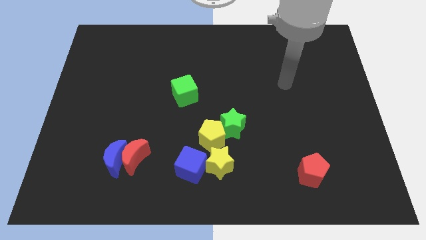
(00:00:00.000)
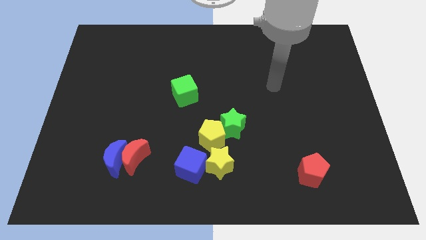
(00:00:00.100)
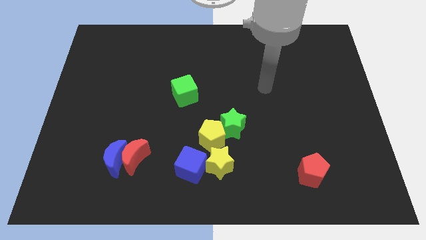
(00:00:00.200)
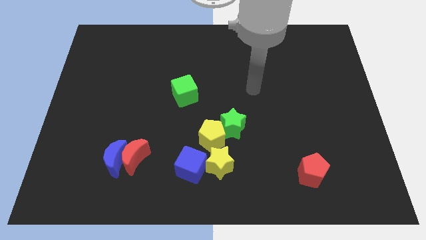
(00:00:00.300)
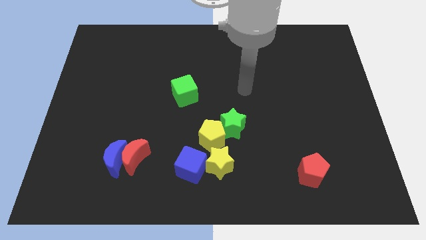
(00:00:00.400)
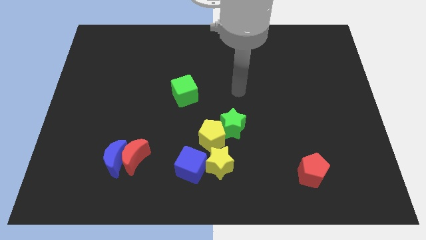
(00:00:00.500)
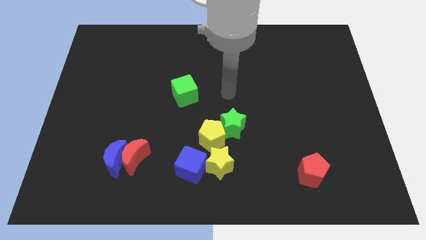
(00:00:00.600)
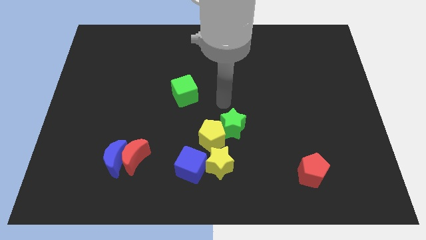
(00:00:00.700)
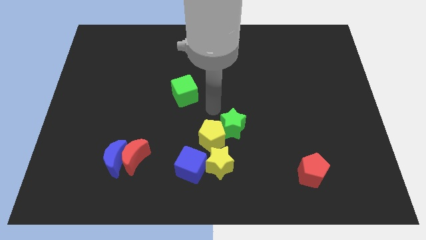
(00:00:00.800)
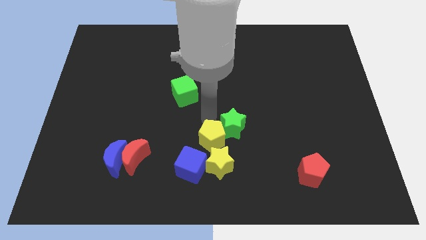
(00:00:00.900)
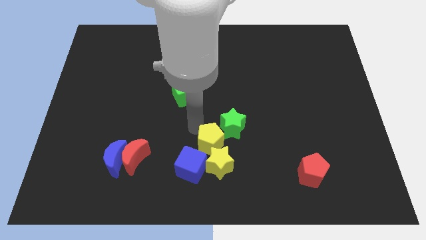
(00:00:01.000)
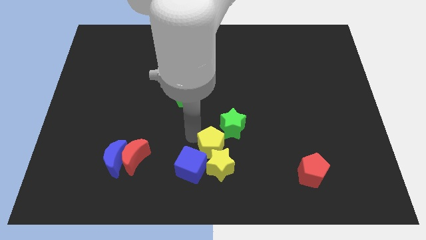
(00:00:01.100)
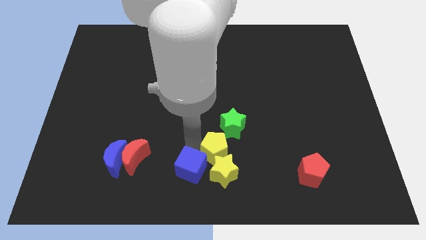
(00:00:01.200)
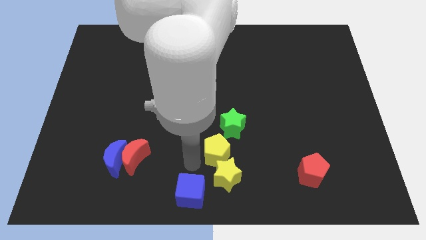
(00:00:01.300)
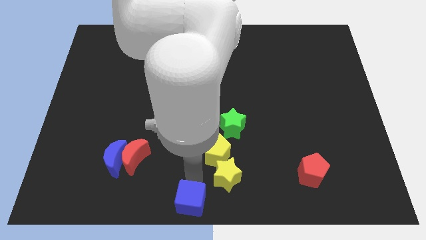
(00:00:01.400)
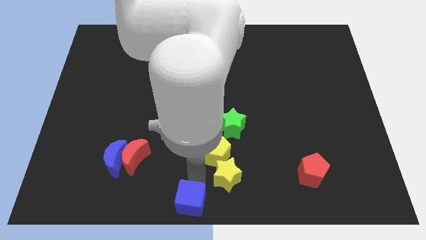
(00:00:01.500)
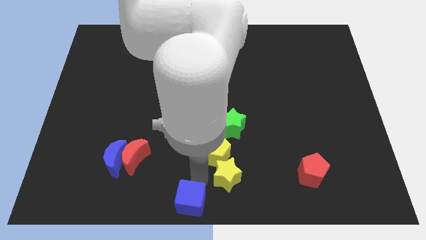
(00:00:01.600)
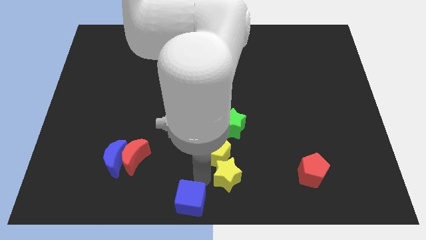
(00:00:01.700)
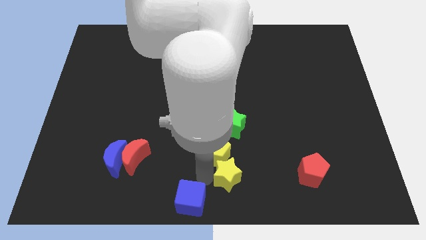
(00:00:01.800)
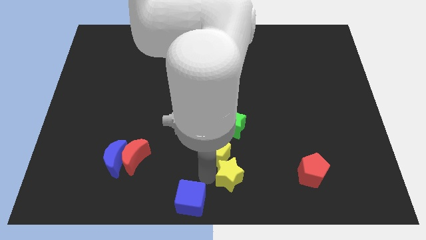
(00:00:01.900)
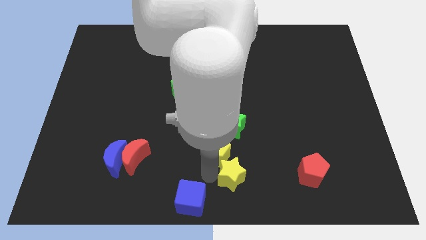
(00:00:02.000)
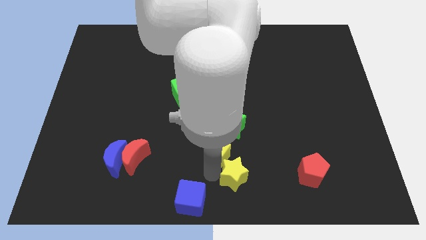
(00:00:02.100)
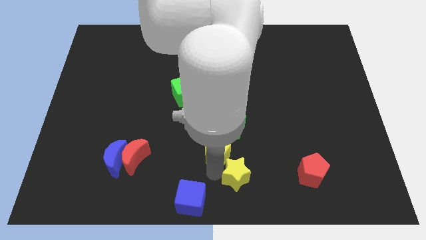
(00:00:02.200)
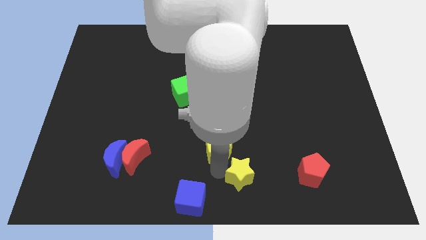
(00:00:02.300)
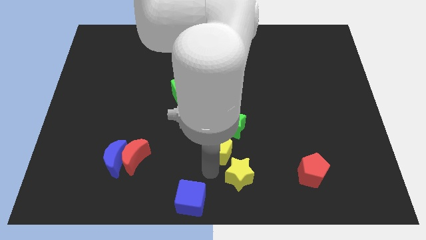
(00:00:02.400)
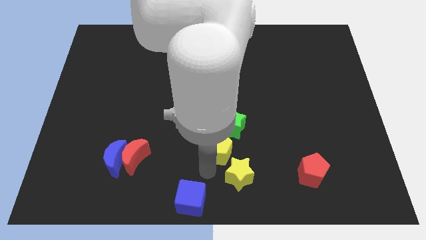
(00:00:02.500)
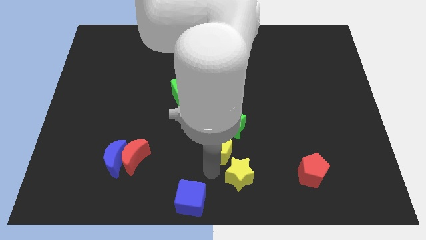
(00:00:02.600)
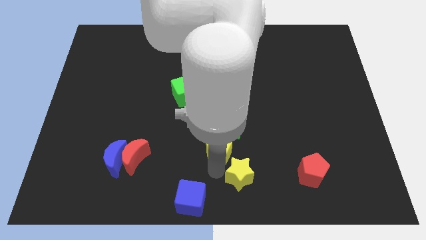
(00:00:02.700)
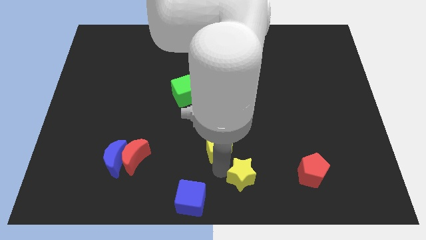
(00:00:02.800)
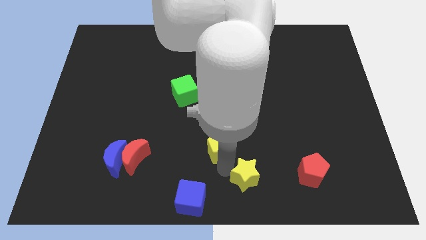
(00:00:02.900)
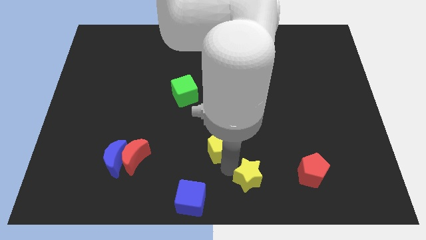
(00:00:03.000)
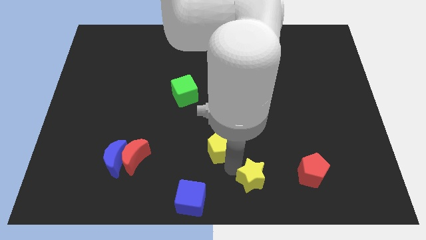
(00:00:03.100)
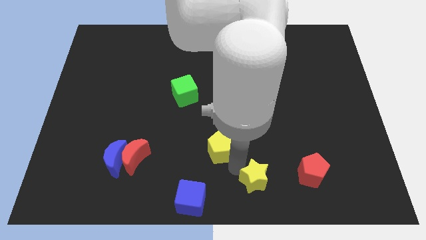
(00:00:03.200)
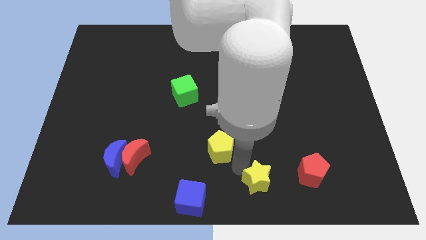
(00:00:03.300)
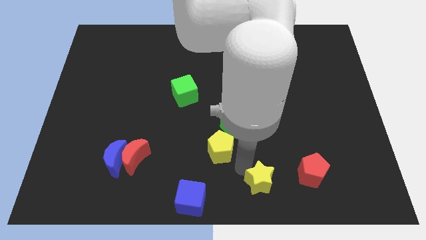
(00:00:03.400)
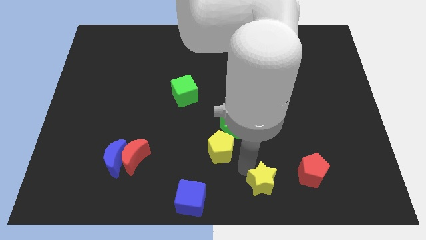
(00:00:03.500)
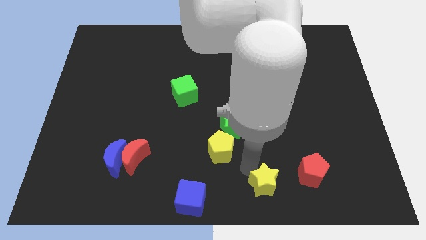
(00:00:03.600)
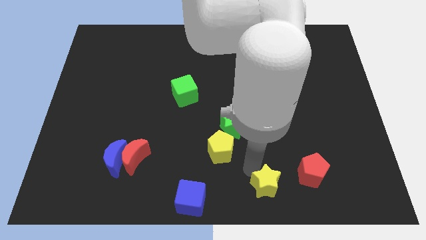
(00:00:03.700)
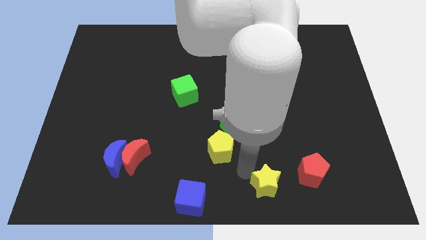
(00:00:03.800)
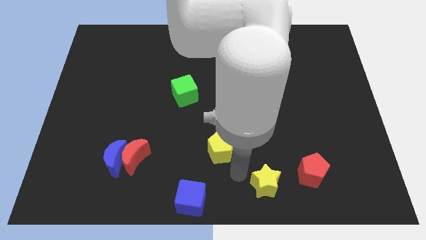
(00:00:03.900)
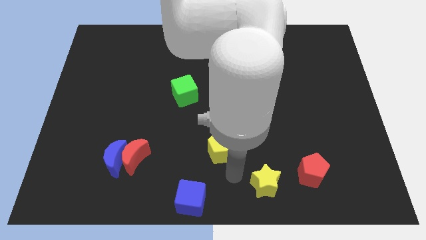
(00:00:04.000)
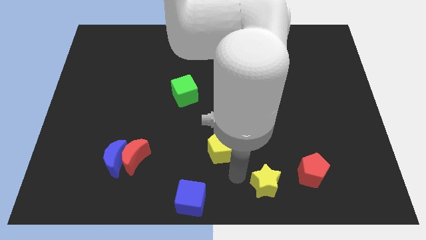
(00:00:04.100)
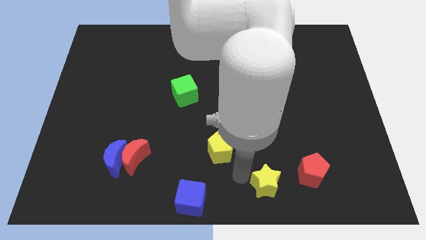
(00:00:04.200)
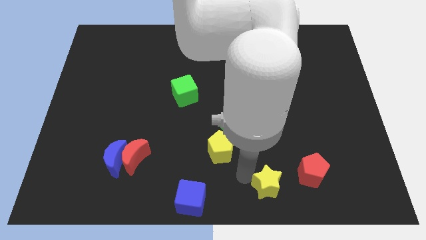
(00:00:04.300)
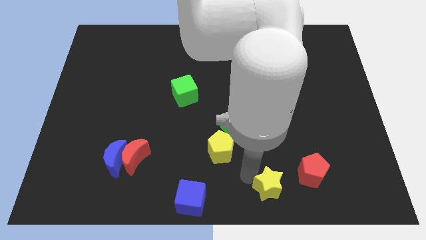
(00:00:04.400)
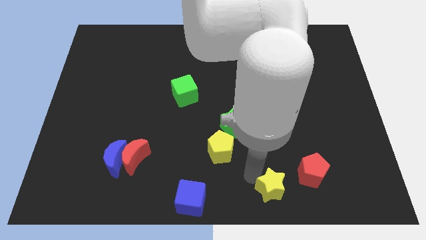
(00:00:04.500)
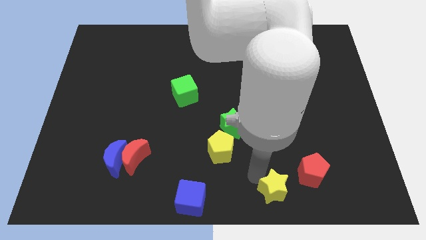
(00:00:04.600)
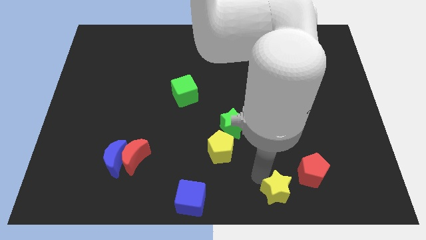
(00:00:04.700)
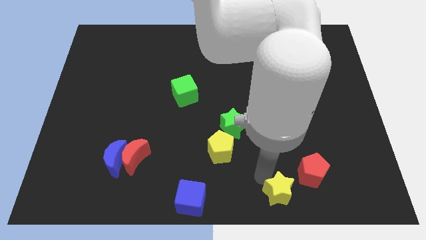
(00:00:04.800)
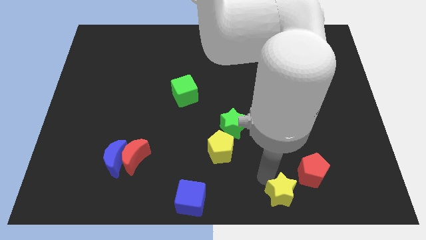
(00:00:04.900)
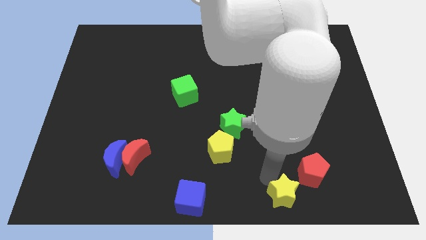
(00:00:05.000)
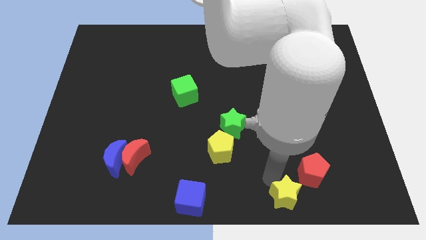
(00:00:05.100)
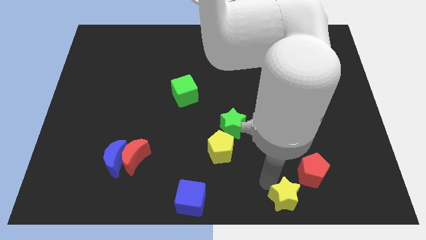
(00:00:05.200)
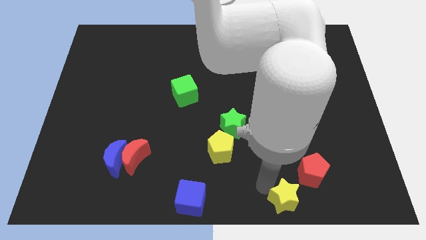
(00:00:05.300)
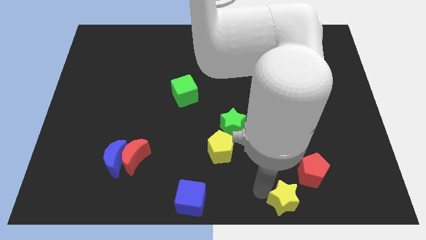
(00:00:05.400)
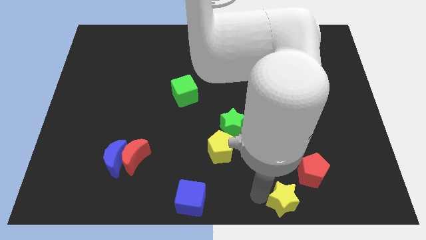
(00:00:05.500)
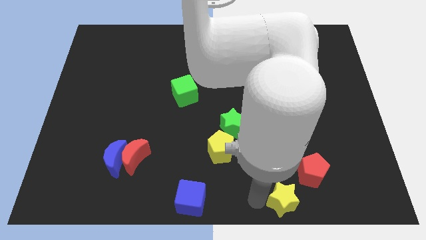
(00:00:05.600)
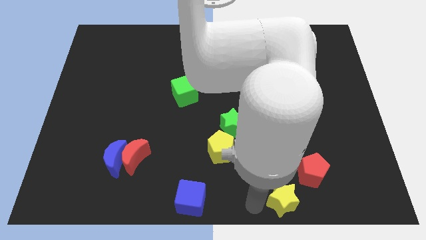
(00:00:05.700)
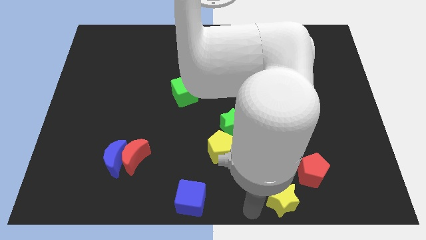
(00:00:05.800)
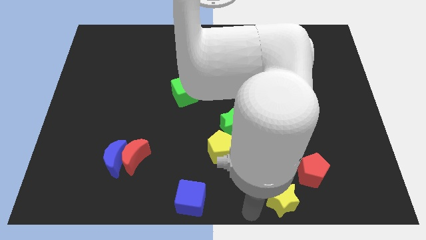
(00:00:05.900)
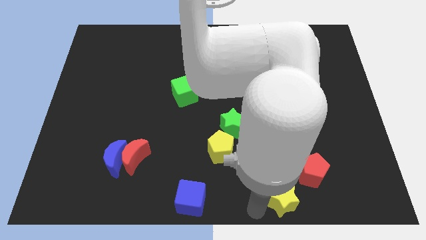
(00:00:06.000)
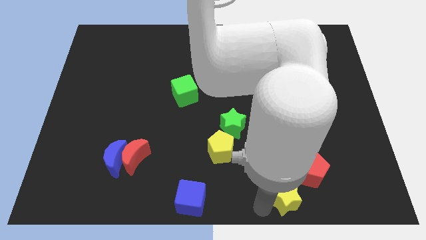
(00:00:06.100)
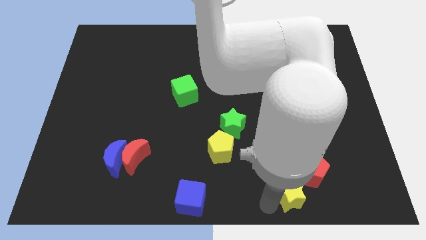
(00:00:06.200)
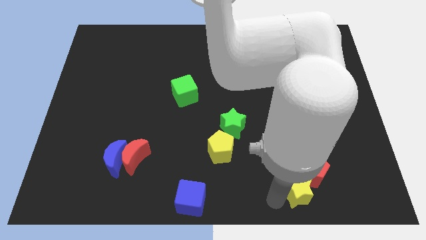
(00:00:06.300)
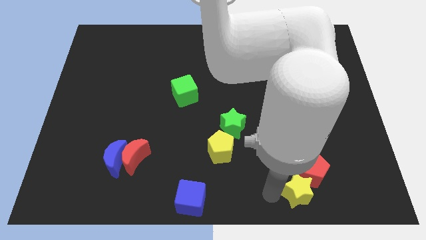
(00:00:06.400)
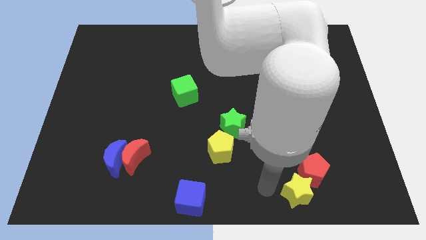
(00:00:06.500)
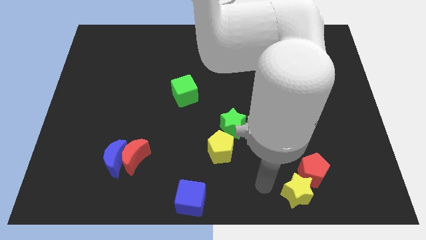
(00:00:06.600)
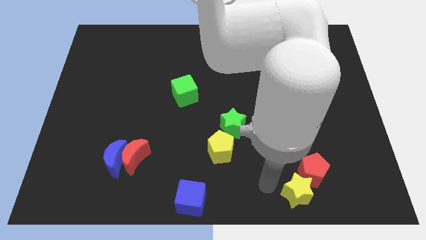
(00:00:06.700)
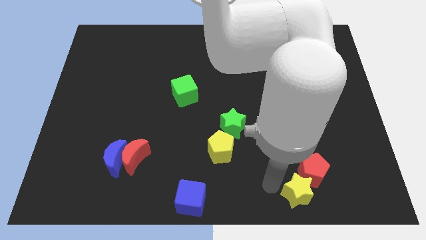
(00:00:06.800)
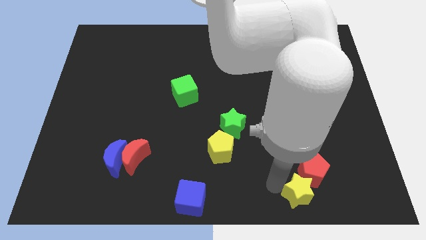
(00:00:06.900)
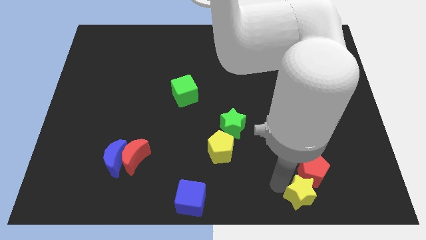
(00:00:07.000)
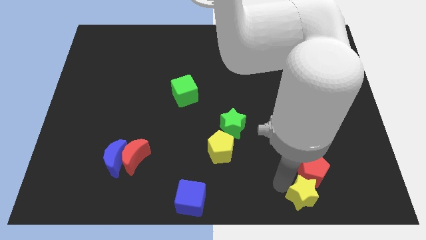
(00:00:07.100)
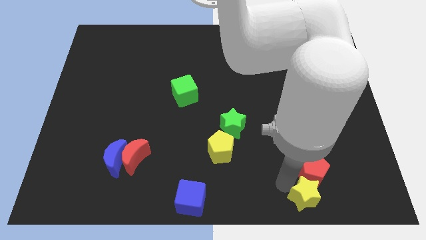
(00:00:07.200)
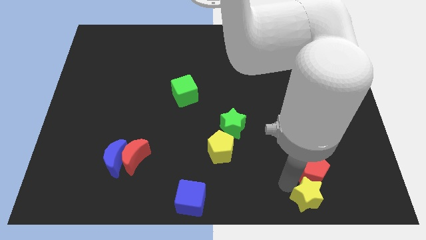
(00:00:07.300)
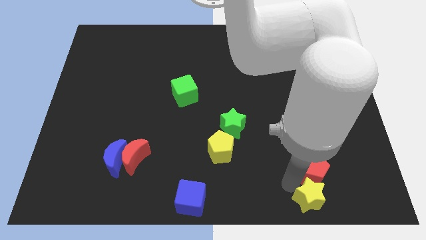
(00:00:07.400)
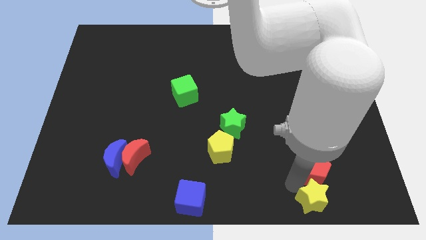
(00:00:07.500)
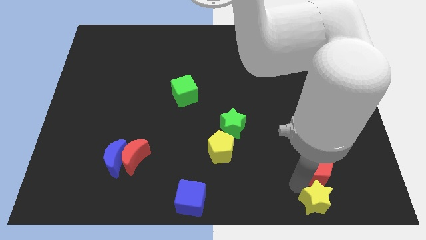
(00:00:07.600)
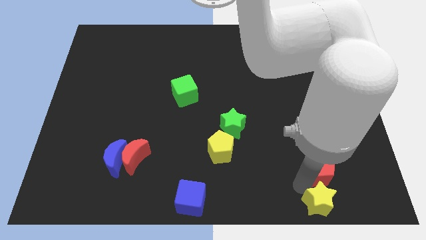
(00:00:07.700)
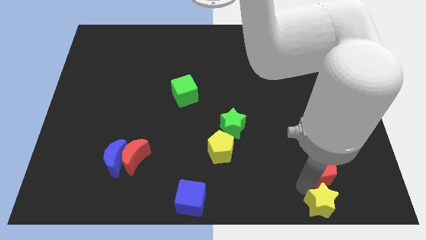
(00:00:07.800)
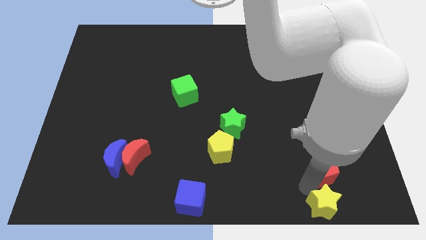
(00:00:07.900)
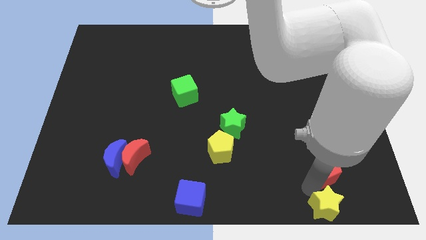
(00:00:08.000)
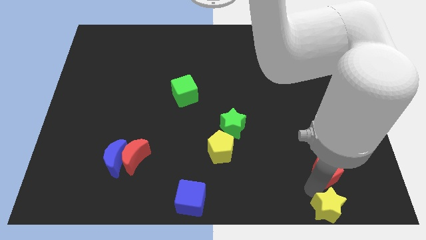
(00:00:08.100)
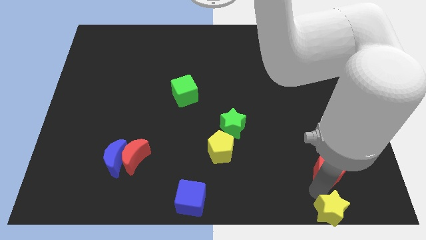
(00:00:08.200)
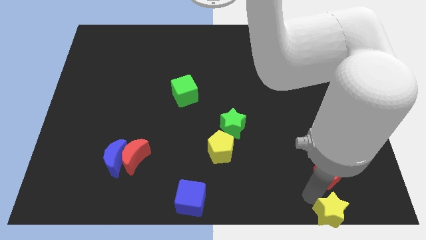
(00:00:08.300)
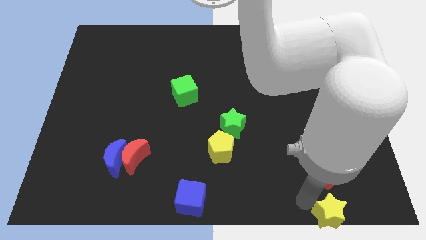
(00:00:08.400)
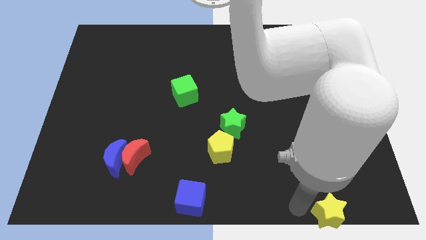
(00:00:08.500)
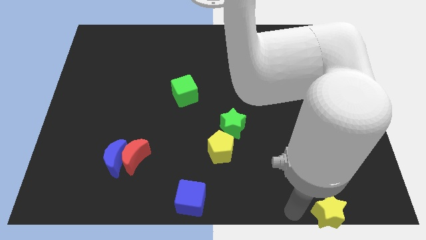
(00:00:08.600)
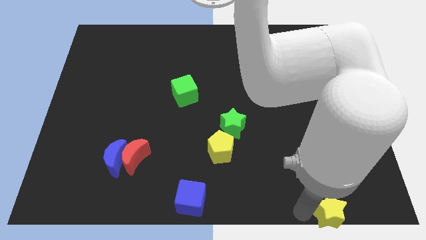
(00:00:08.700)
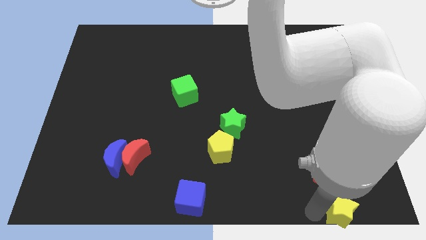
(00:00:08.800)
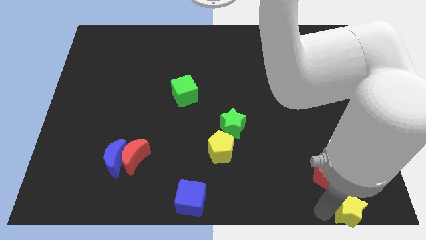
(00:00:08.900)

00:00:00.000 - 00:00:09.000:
put the yellow star to the lower right corner
